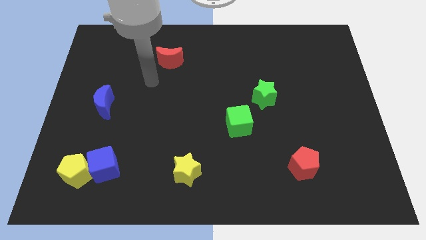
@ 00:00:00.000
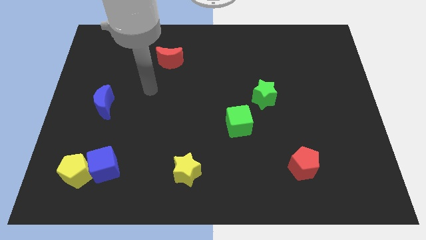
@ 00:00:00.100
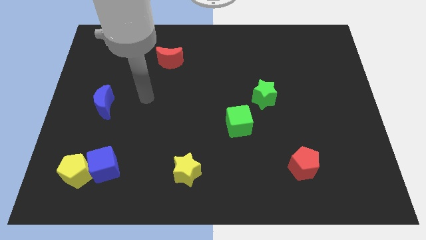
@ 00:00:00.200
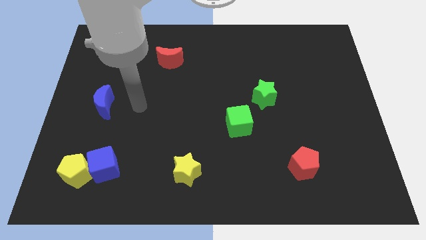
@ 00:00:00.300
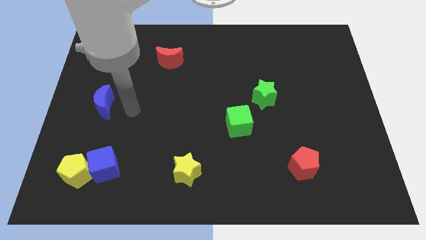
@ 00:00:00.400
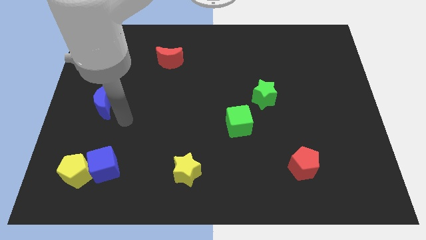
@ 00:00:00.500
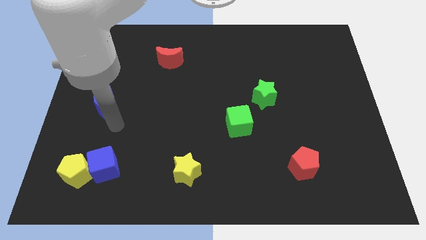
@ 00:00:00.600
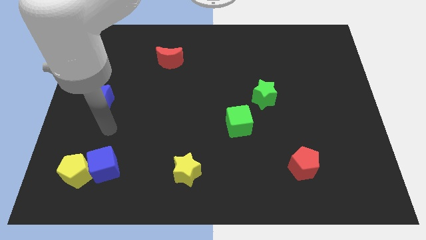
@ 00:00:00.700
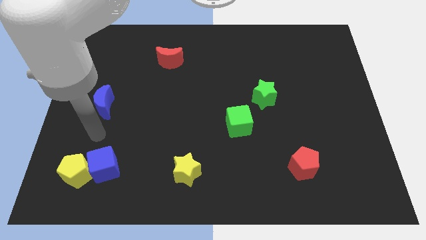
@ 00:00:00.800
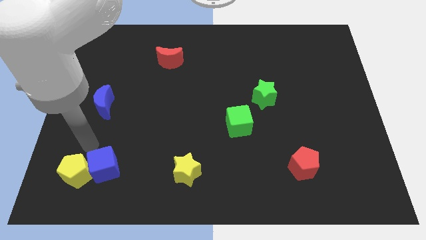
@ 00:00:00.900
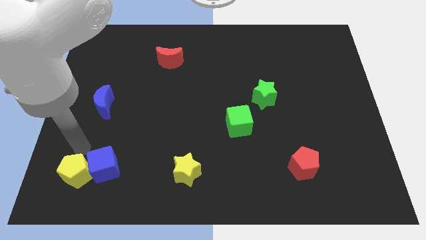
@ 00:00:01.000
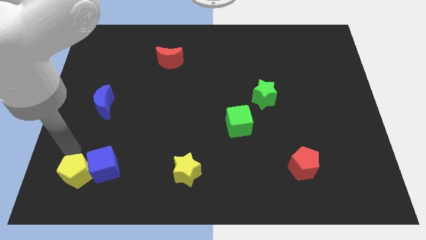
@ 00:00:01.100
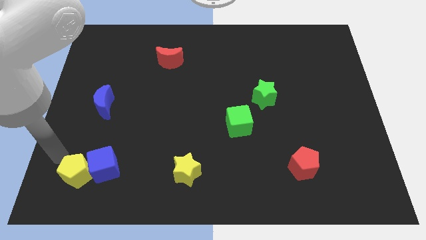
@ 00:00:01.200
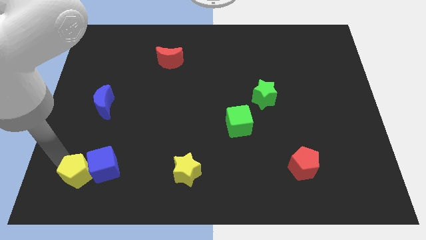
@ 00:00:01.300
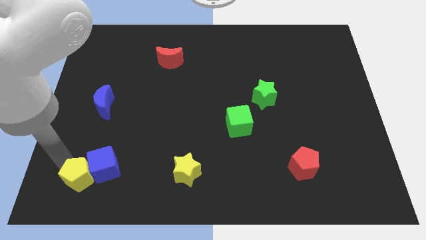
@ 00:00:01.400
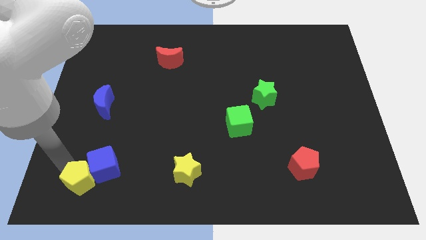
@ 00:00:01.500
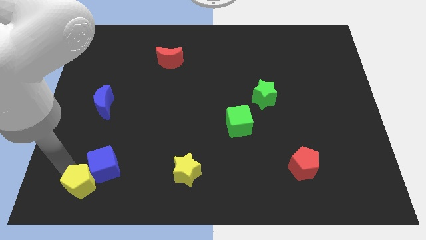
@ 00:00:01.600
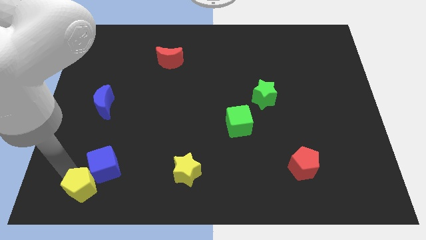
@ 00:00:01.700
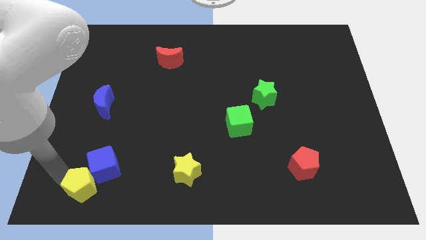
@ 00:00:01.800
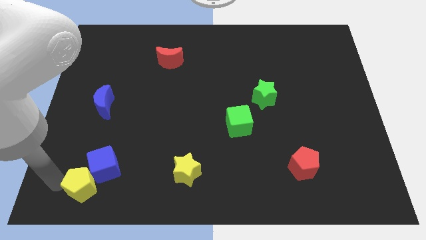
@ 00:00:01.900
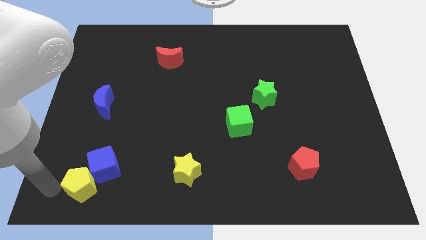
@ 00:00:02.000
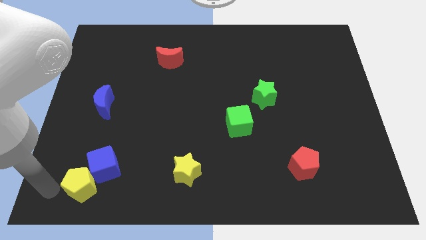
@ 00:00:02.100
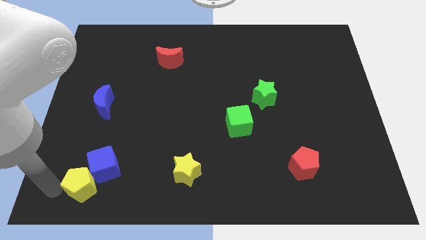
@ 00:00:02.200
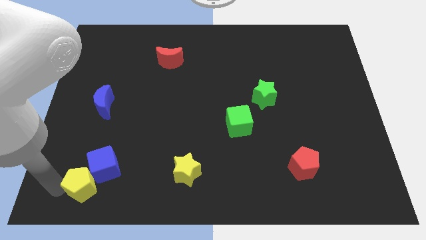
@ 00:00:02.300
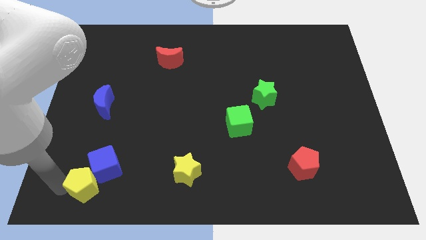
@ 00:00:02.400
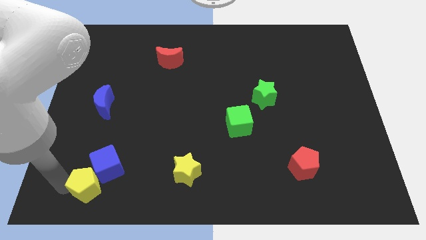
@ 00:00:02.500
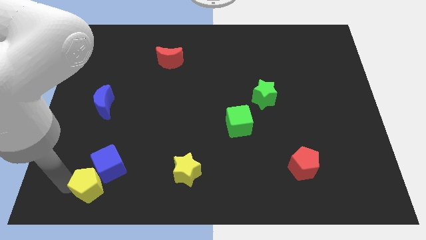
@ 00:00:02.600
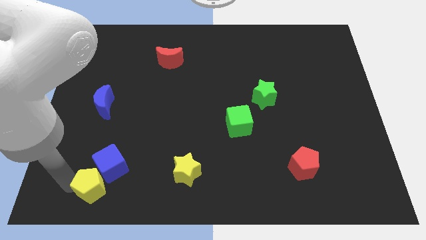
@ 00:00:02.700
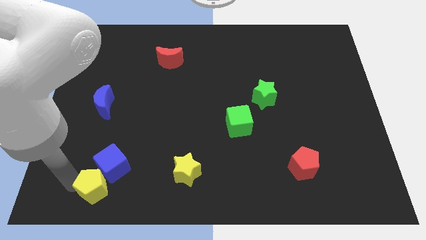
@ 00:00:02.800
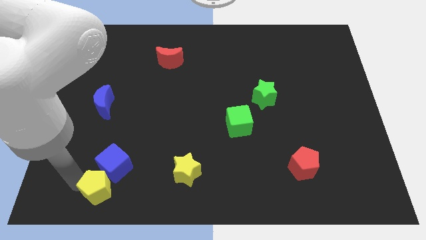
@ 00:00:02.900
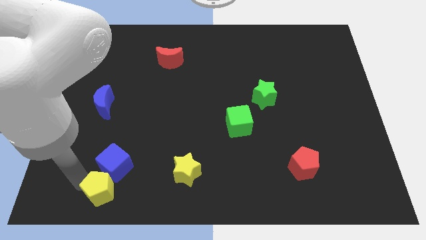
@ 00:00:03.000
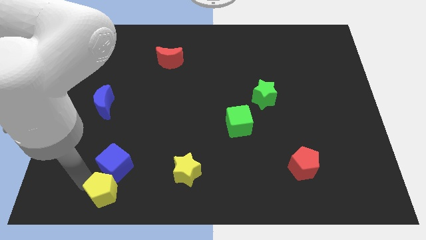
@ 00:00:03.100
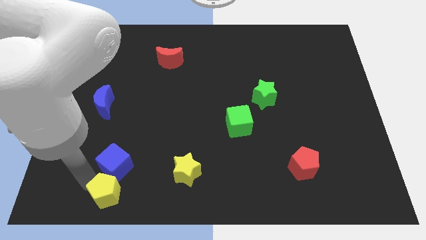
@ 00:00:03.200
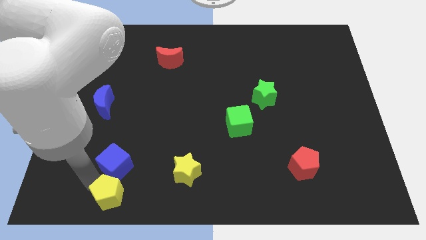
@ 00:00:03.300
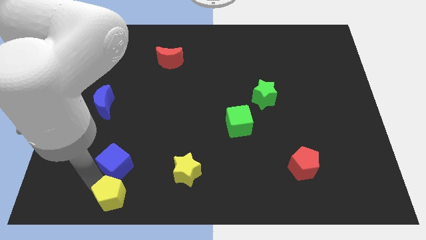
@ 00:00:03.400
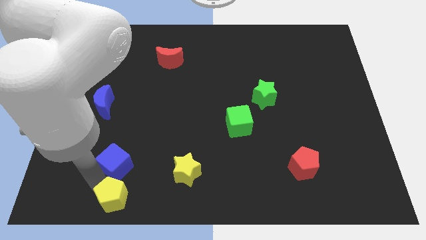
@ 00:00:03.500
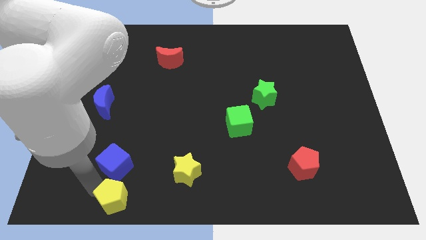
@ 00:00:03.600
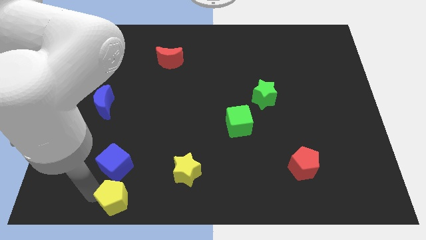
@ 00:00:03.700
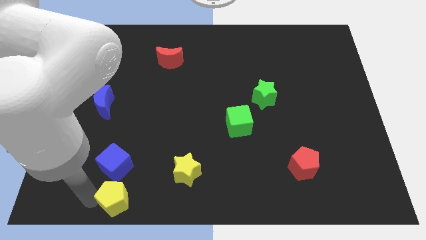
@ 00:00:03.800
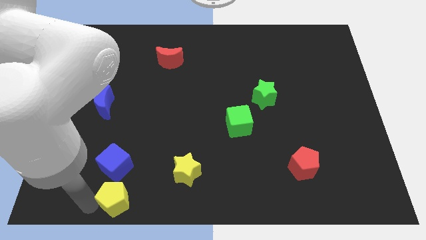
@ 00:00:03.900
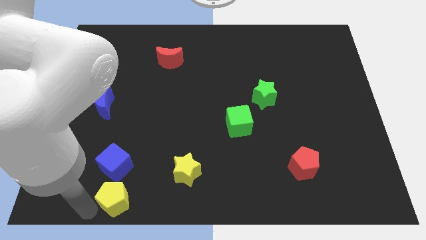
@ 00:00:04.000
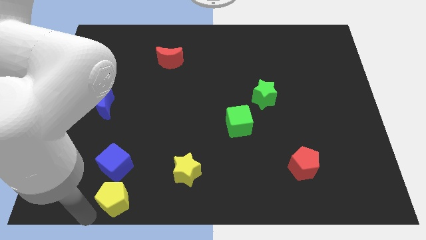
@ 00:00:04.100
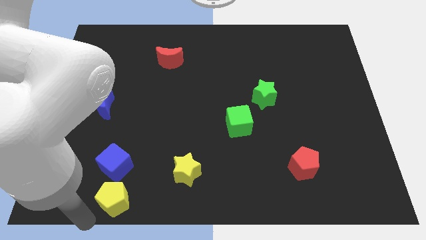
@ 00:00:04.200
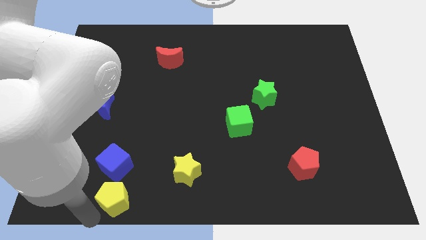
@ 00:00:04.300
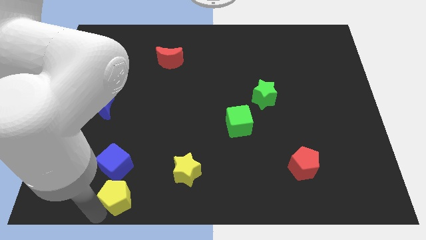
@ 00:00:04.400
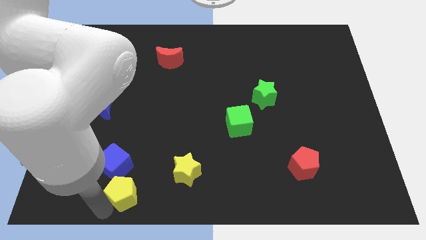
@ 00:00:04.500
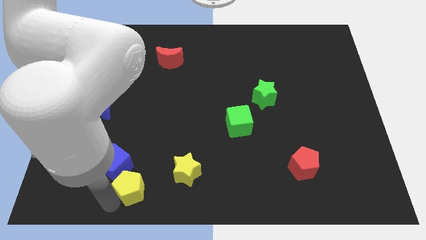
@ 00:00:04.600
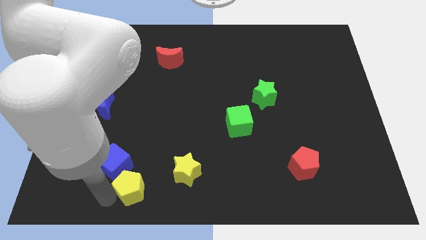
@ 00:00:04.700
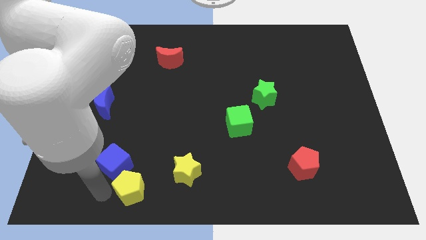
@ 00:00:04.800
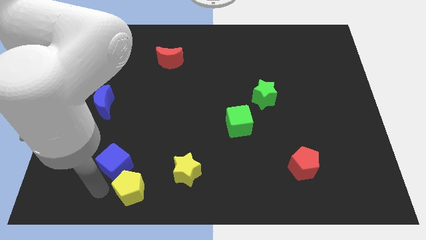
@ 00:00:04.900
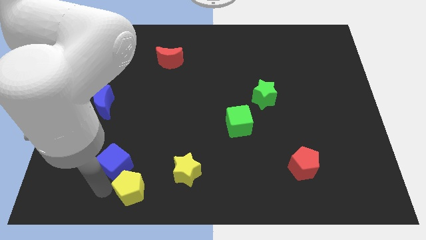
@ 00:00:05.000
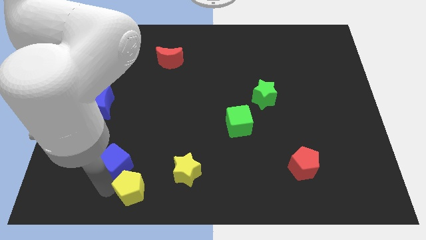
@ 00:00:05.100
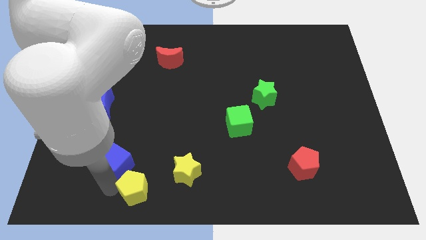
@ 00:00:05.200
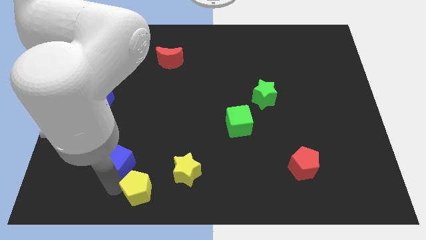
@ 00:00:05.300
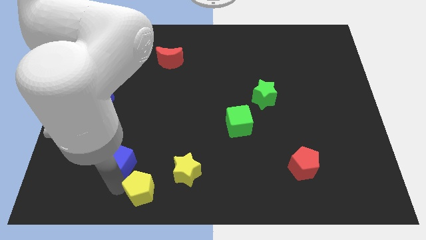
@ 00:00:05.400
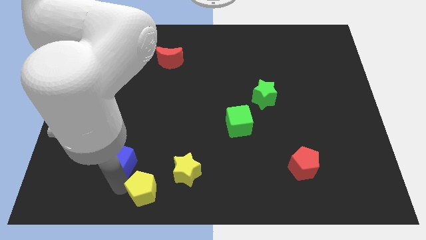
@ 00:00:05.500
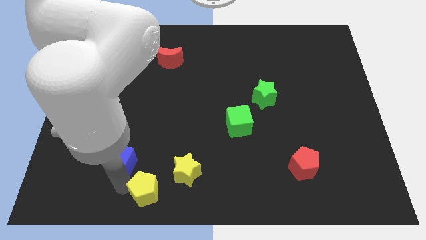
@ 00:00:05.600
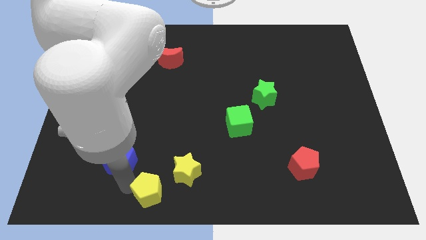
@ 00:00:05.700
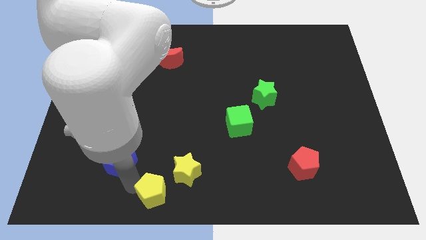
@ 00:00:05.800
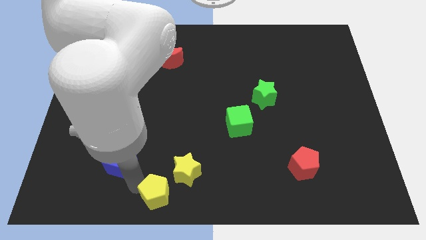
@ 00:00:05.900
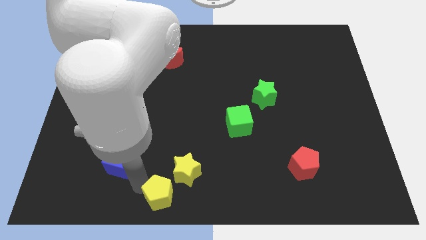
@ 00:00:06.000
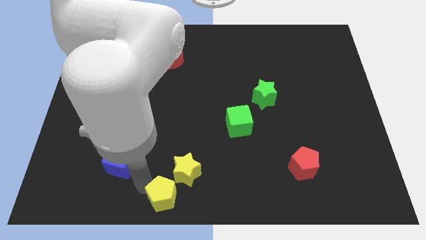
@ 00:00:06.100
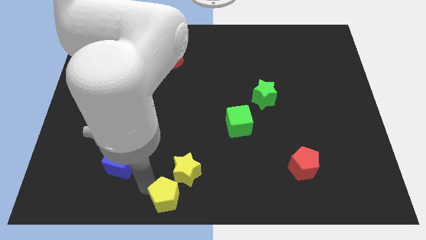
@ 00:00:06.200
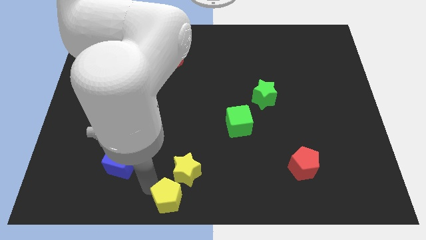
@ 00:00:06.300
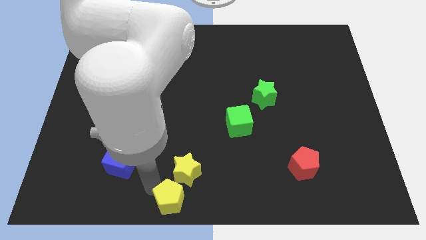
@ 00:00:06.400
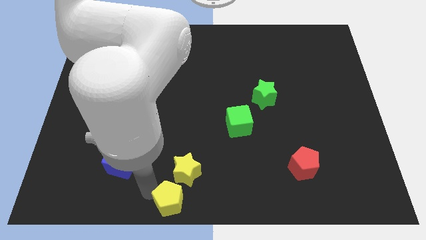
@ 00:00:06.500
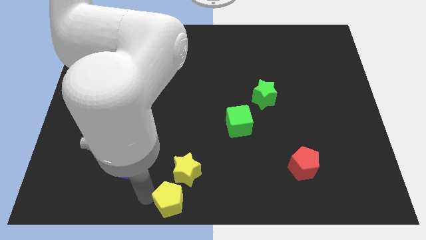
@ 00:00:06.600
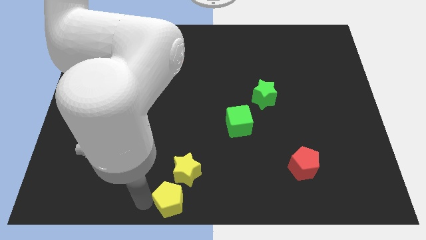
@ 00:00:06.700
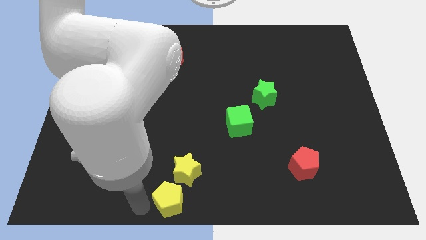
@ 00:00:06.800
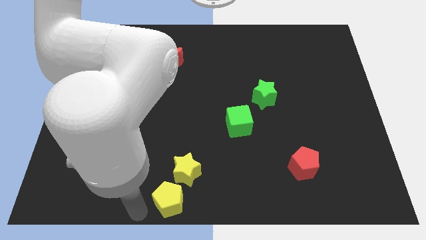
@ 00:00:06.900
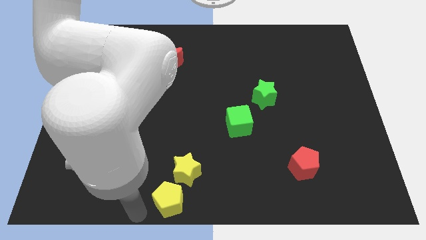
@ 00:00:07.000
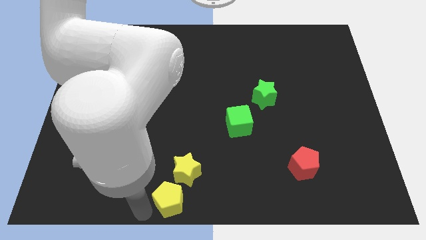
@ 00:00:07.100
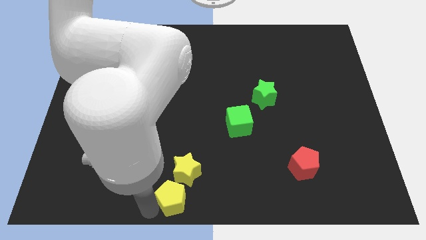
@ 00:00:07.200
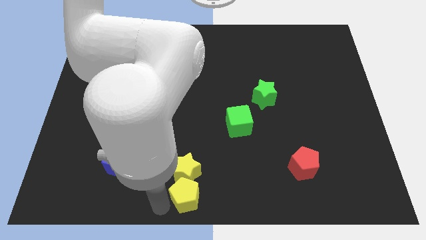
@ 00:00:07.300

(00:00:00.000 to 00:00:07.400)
slide the yellow pentagon to the right

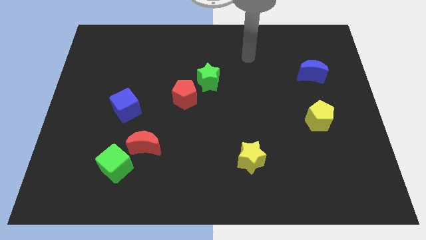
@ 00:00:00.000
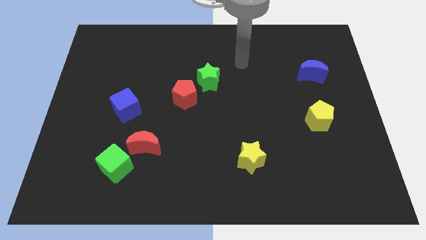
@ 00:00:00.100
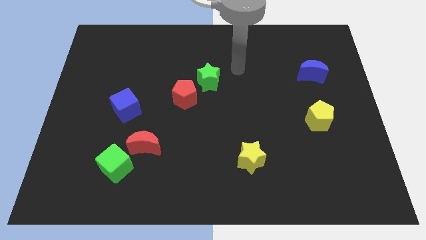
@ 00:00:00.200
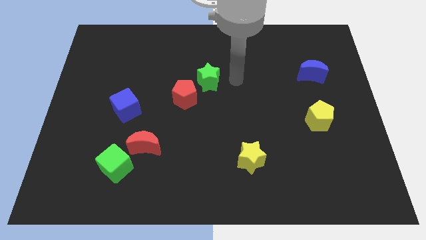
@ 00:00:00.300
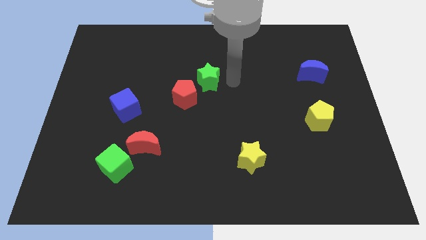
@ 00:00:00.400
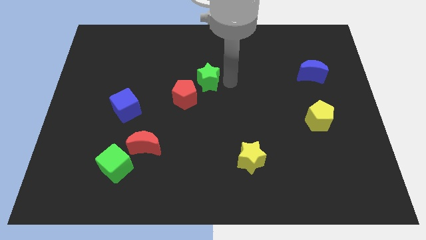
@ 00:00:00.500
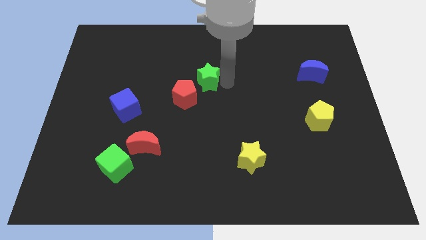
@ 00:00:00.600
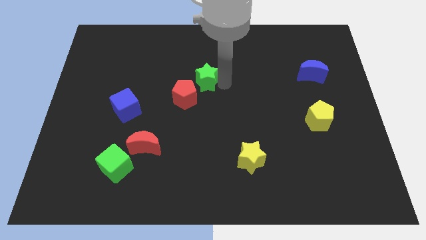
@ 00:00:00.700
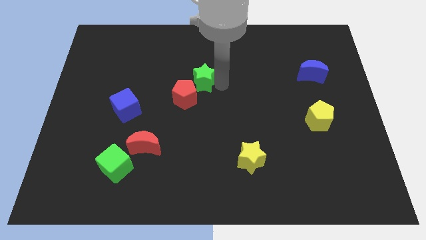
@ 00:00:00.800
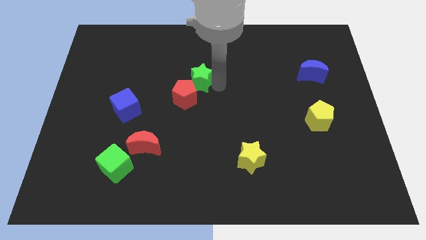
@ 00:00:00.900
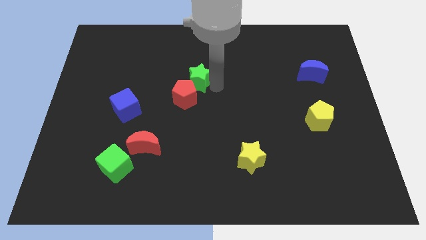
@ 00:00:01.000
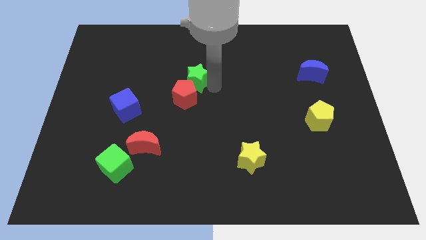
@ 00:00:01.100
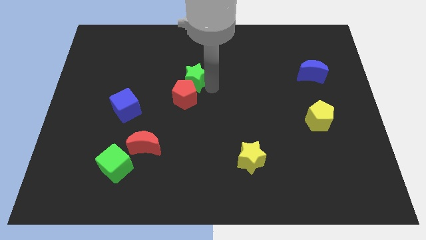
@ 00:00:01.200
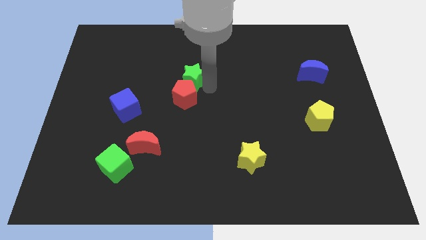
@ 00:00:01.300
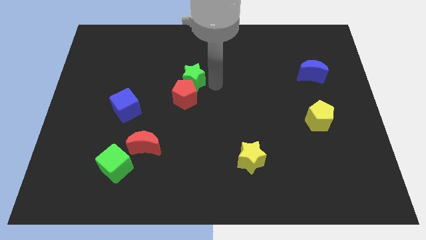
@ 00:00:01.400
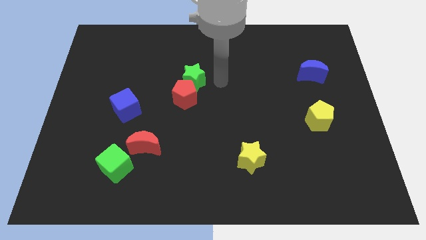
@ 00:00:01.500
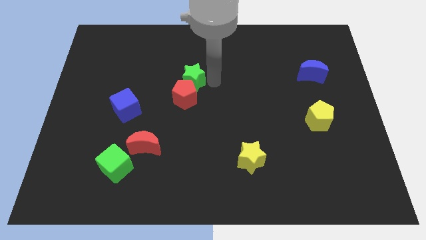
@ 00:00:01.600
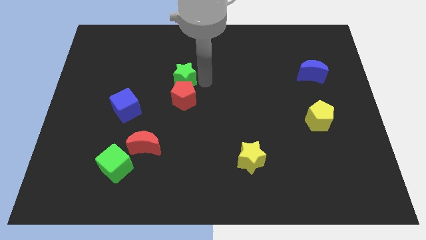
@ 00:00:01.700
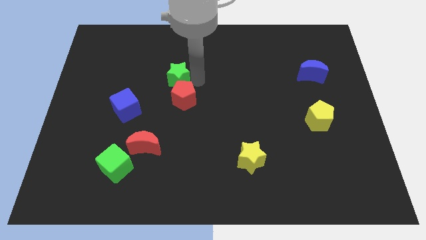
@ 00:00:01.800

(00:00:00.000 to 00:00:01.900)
push the green star left a little
